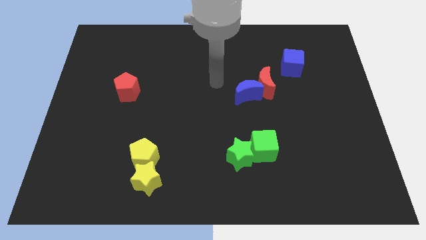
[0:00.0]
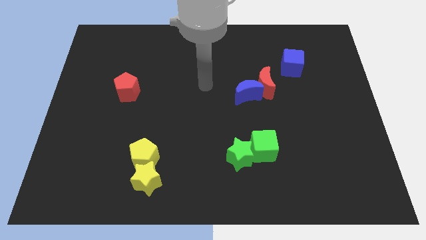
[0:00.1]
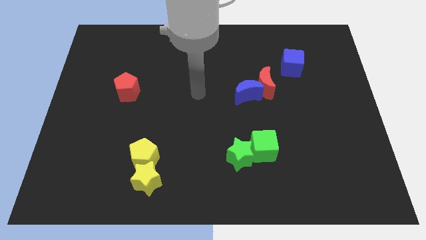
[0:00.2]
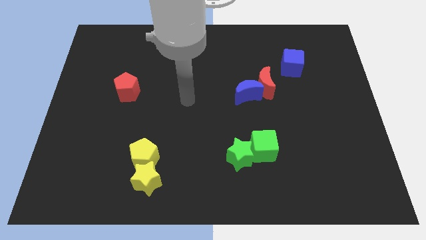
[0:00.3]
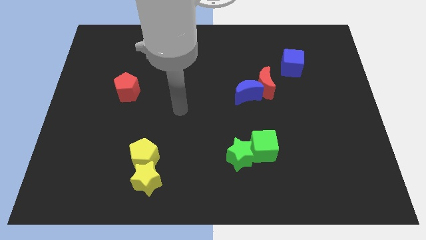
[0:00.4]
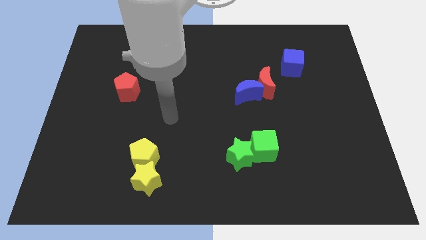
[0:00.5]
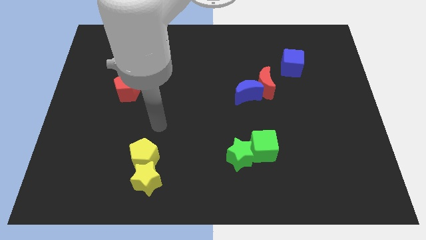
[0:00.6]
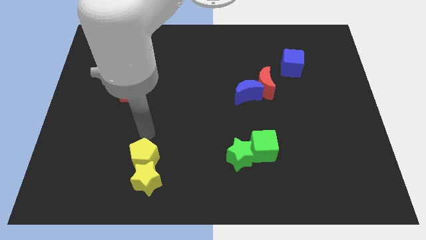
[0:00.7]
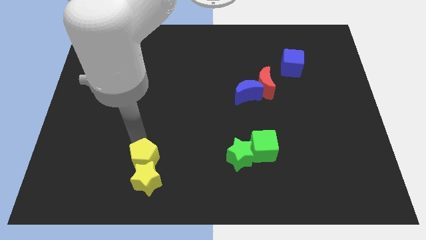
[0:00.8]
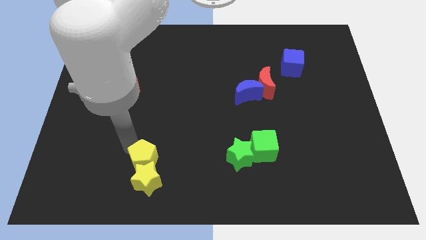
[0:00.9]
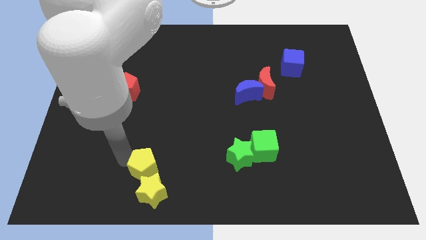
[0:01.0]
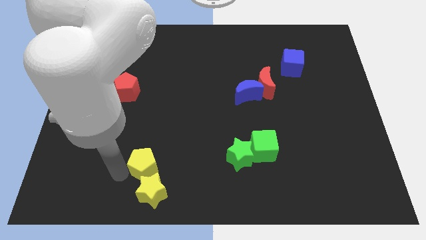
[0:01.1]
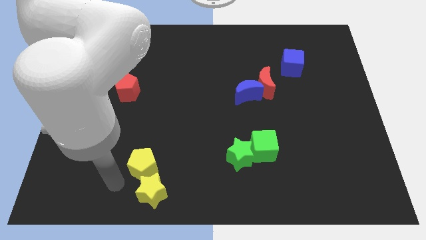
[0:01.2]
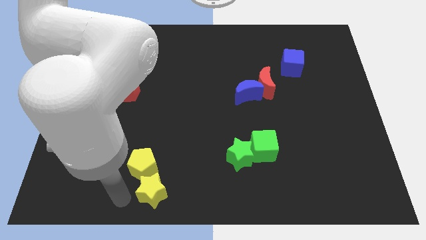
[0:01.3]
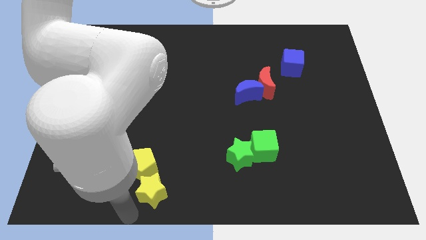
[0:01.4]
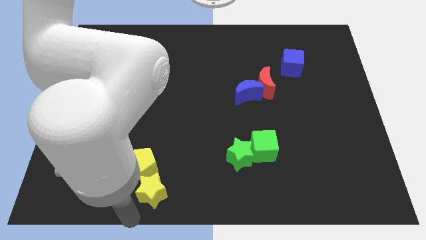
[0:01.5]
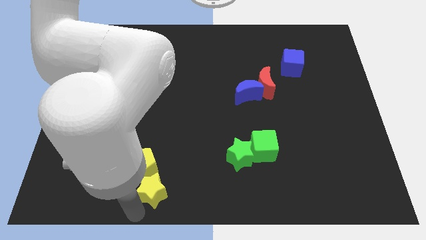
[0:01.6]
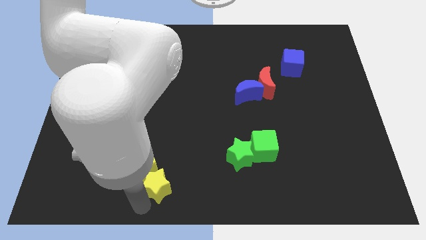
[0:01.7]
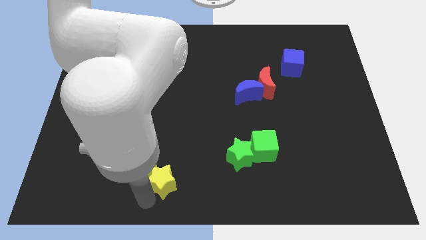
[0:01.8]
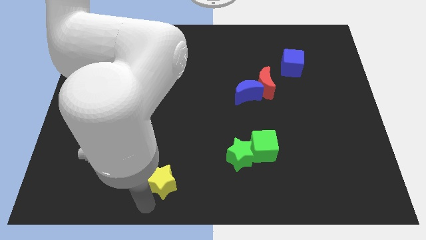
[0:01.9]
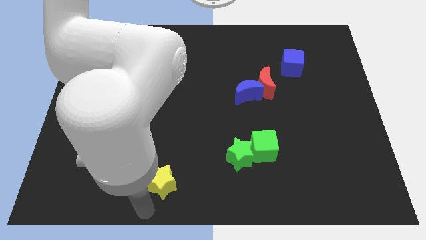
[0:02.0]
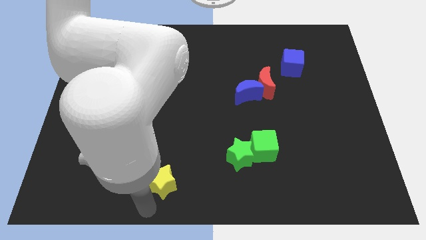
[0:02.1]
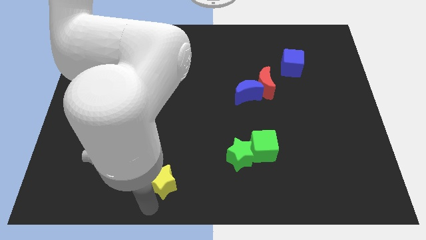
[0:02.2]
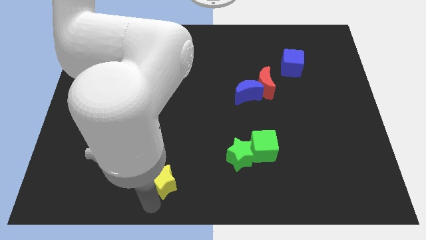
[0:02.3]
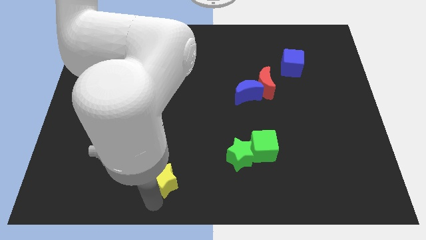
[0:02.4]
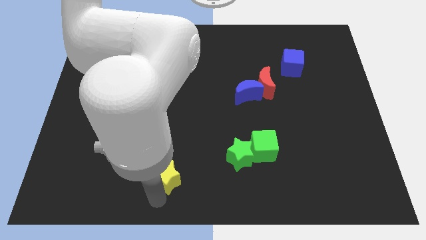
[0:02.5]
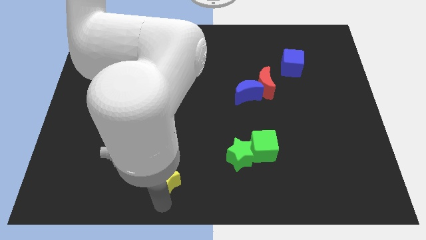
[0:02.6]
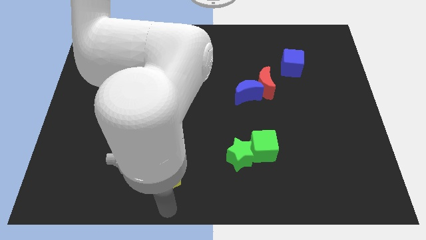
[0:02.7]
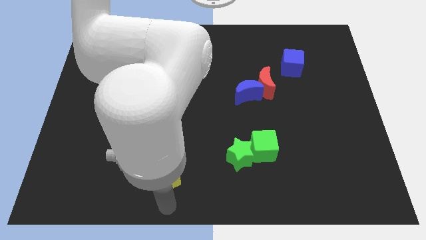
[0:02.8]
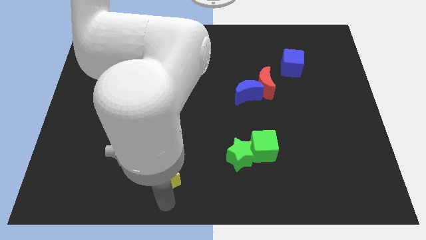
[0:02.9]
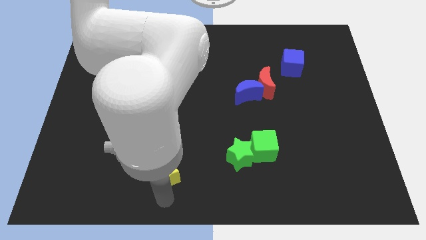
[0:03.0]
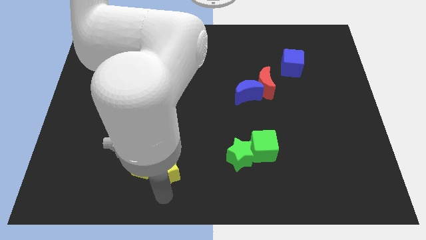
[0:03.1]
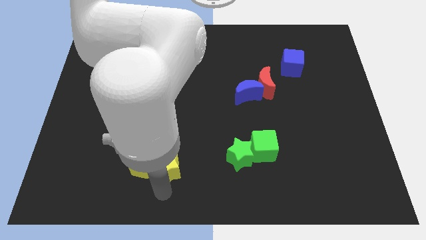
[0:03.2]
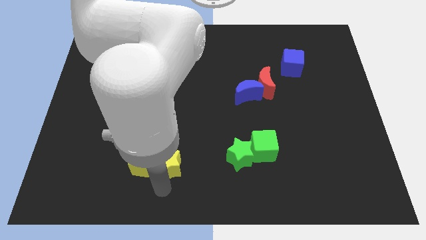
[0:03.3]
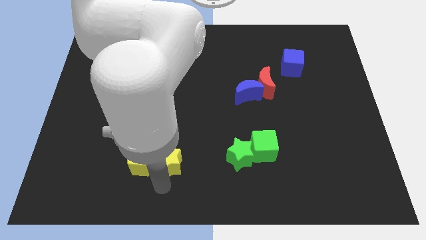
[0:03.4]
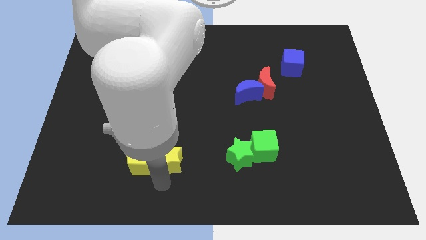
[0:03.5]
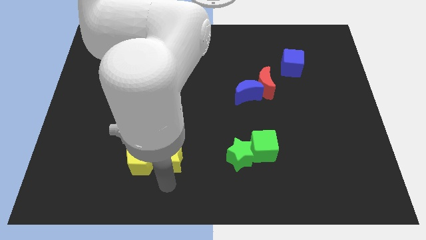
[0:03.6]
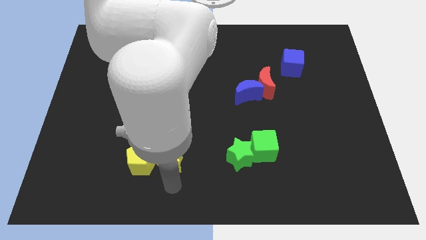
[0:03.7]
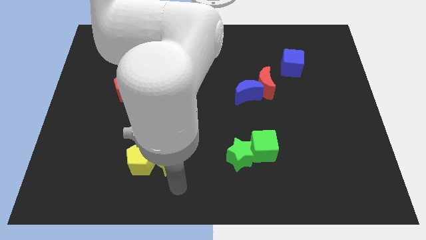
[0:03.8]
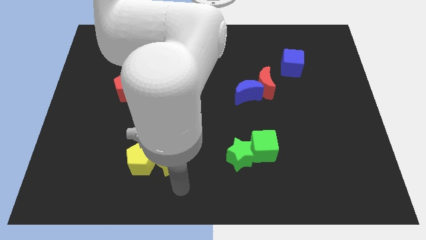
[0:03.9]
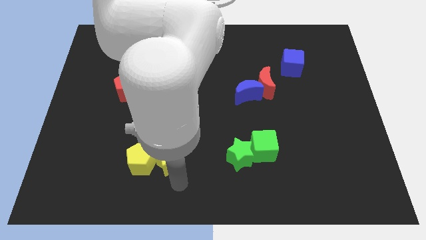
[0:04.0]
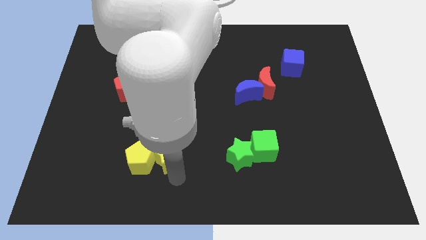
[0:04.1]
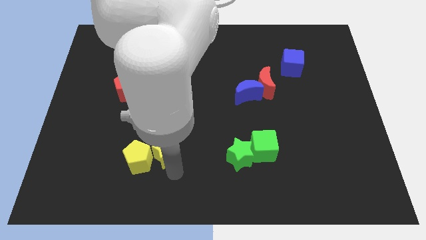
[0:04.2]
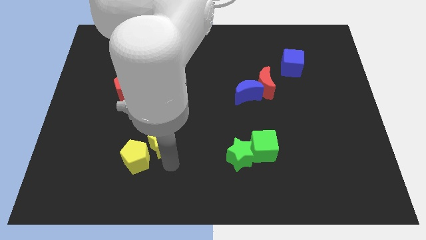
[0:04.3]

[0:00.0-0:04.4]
slide the yellow star upwards somewhat

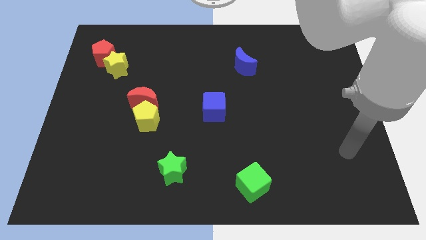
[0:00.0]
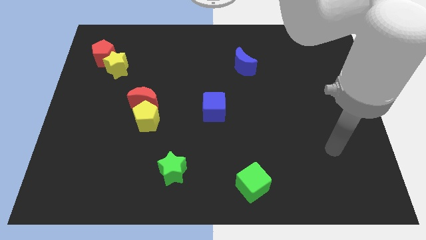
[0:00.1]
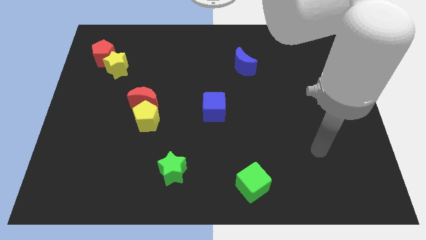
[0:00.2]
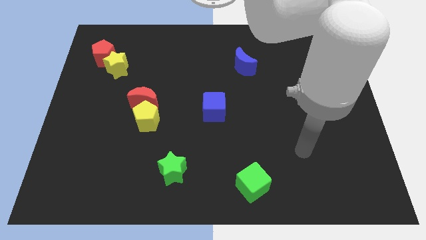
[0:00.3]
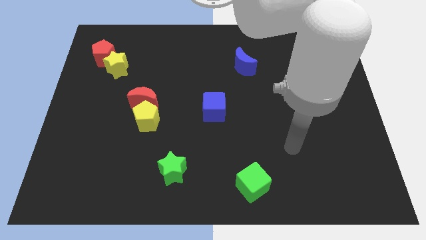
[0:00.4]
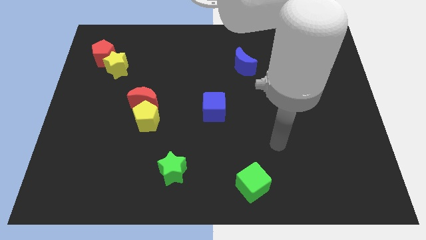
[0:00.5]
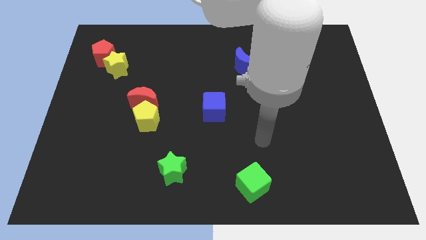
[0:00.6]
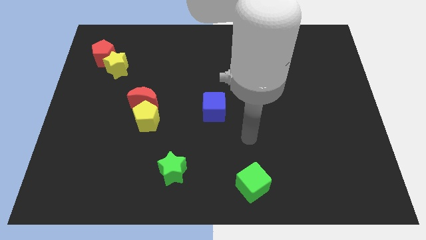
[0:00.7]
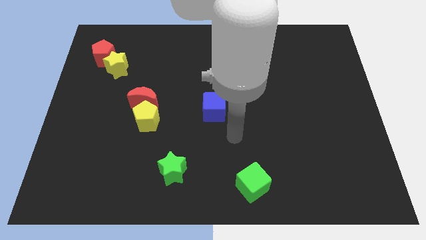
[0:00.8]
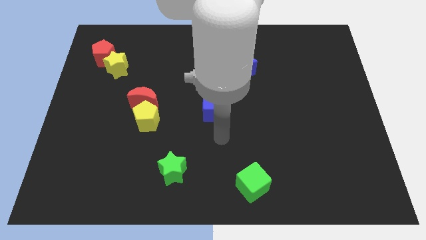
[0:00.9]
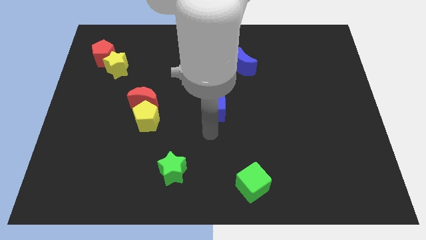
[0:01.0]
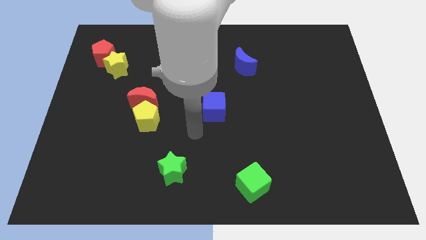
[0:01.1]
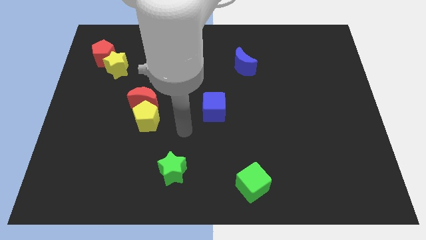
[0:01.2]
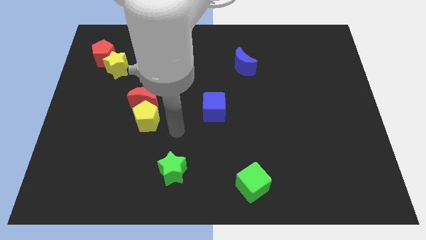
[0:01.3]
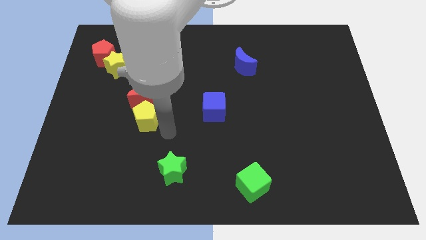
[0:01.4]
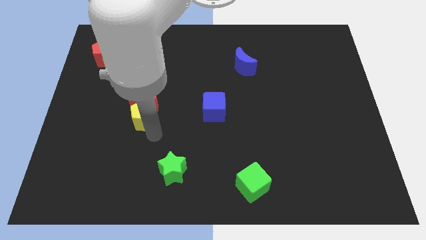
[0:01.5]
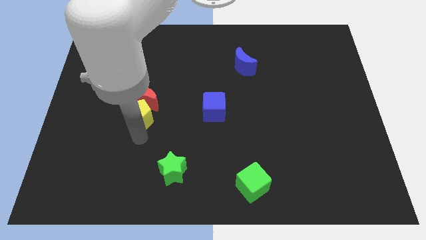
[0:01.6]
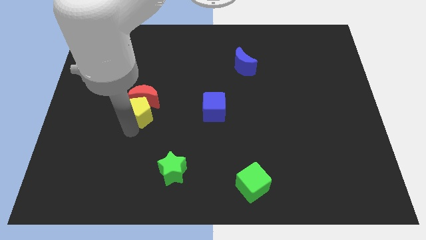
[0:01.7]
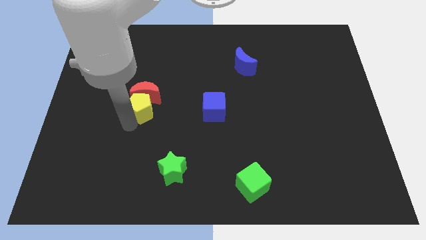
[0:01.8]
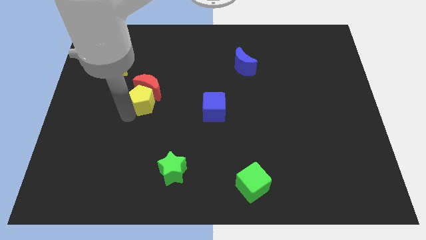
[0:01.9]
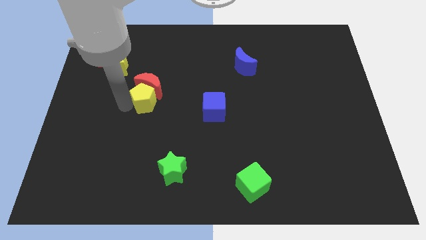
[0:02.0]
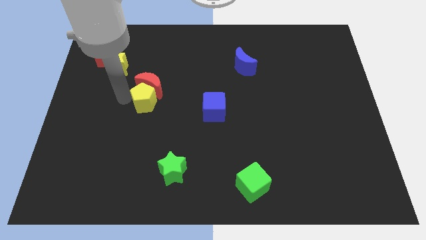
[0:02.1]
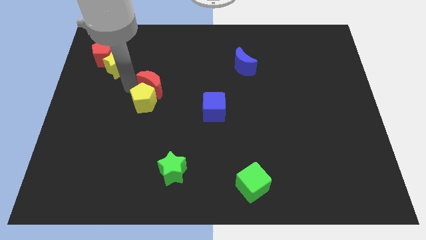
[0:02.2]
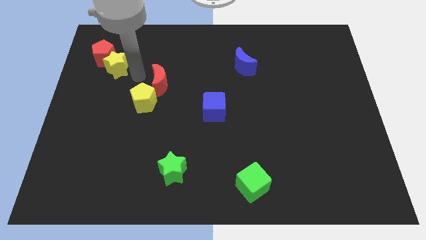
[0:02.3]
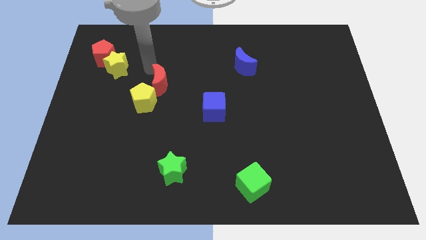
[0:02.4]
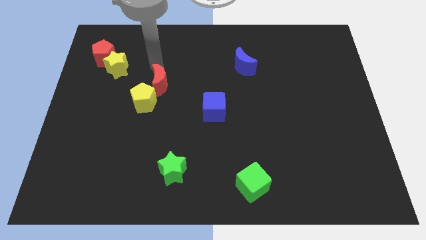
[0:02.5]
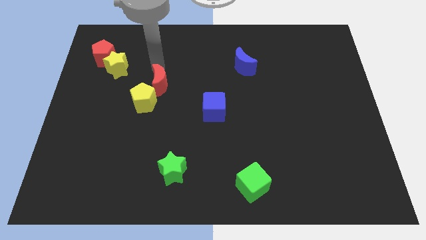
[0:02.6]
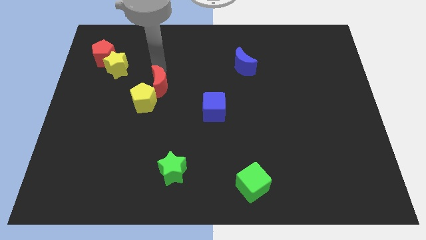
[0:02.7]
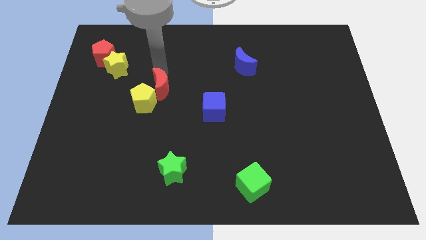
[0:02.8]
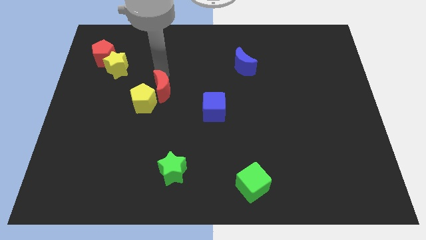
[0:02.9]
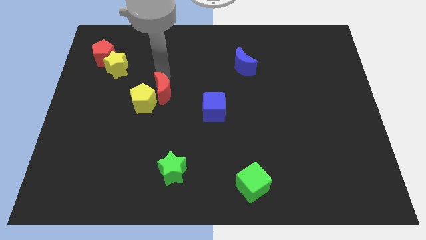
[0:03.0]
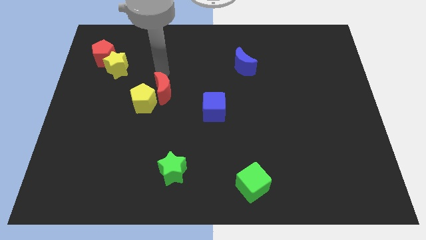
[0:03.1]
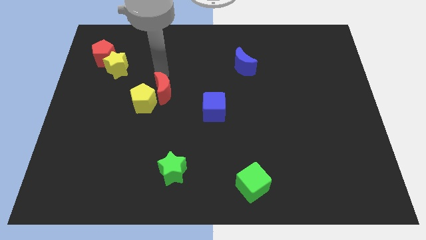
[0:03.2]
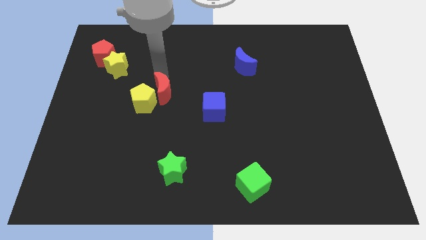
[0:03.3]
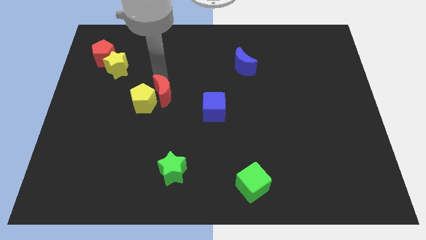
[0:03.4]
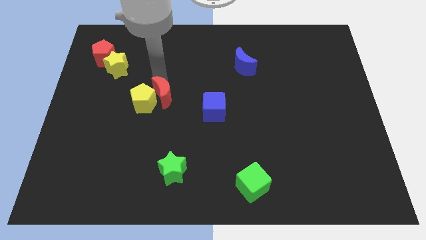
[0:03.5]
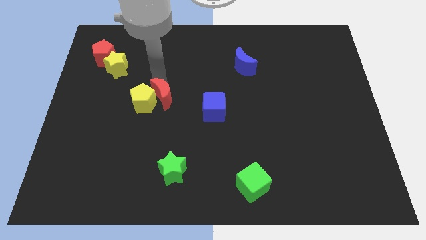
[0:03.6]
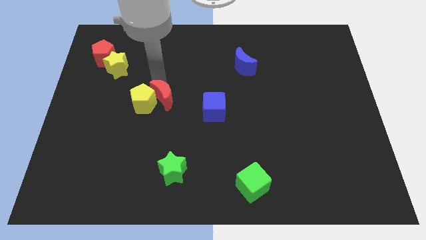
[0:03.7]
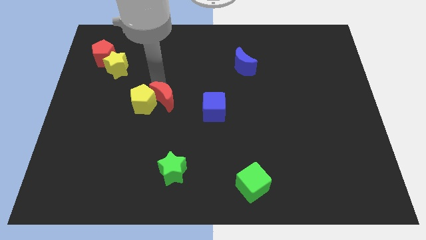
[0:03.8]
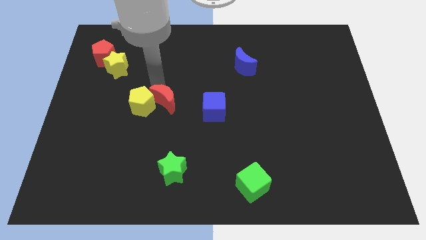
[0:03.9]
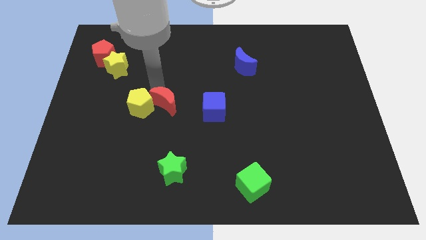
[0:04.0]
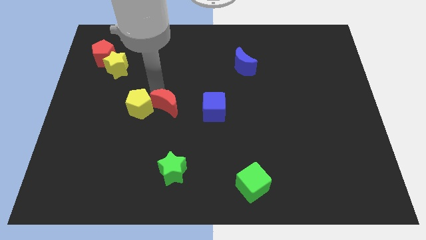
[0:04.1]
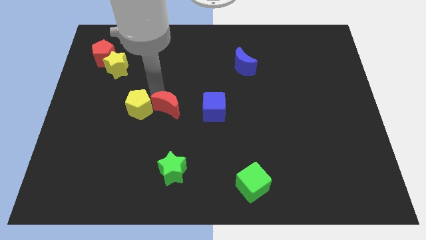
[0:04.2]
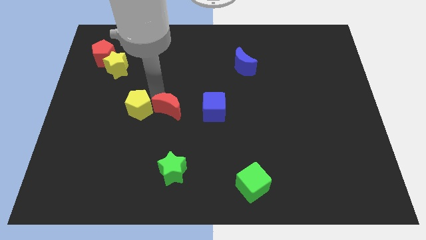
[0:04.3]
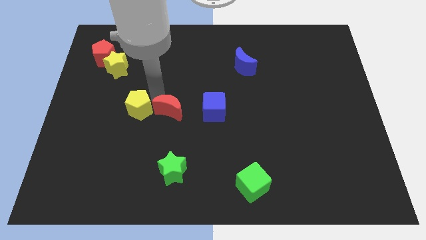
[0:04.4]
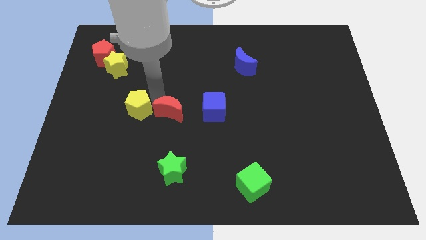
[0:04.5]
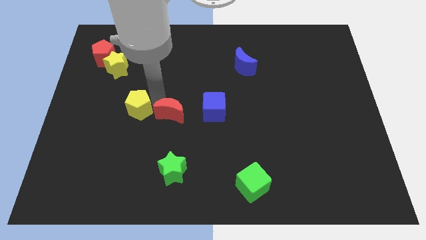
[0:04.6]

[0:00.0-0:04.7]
slightly push the red moon diagonally downwards and to the right
